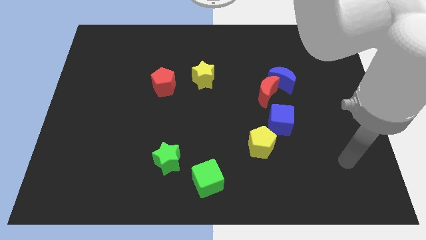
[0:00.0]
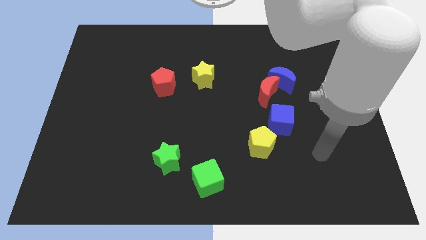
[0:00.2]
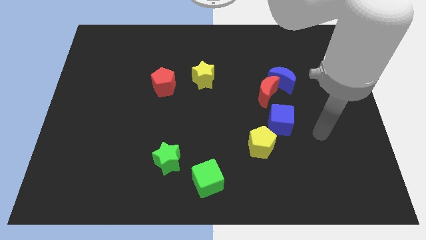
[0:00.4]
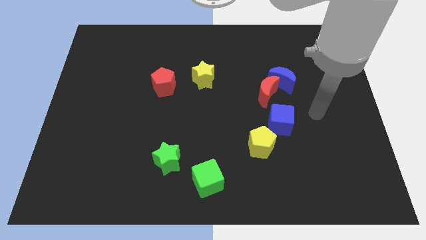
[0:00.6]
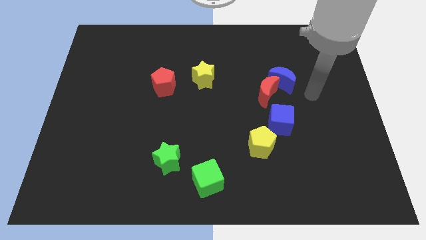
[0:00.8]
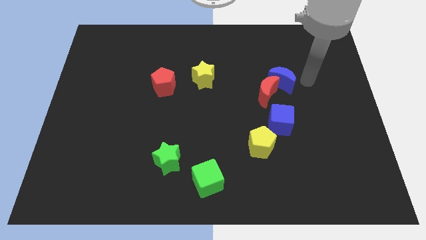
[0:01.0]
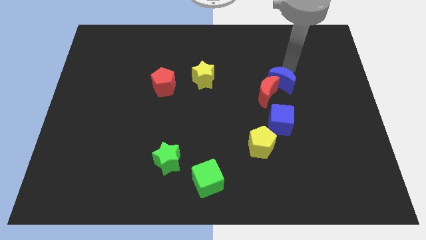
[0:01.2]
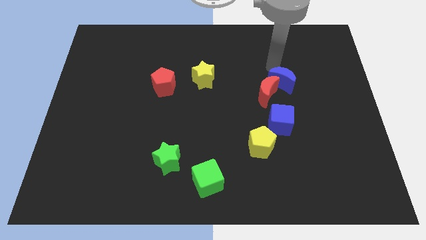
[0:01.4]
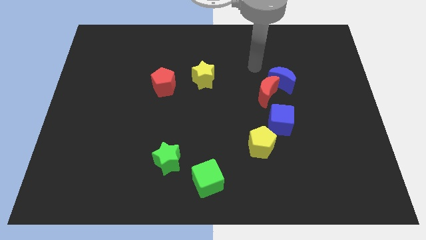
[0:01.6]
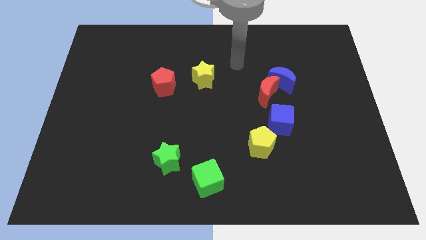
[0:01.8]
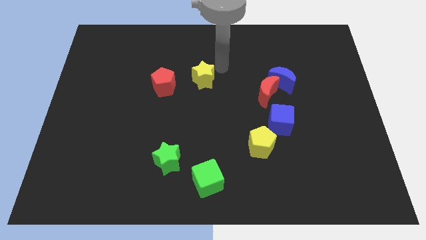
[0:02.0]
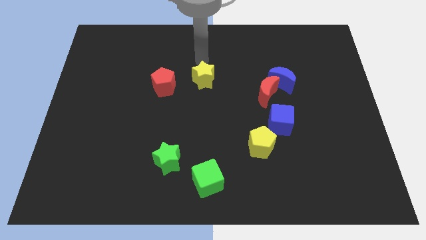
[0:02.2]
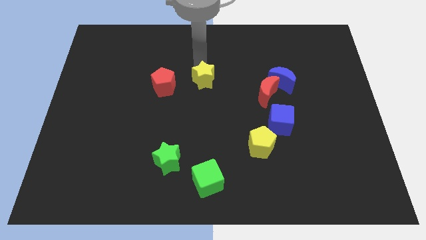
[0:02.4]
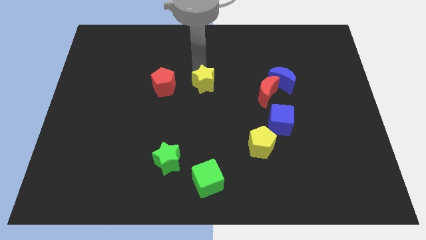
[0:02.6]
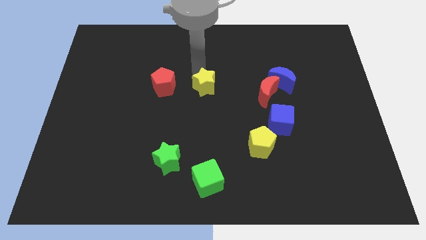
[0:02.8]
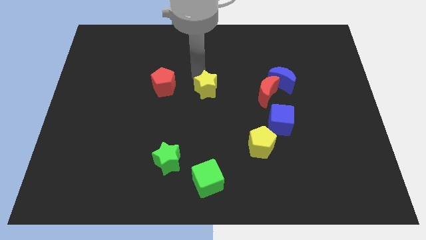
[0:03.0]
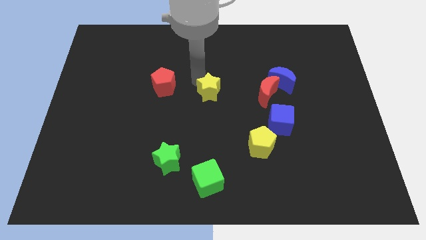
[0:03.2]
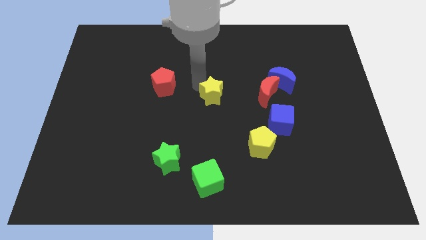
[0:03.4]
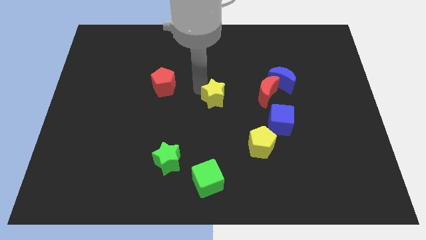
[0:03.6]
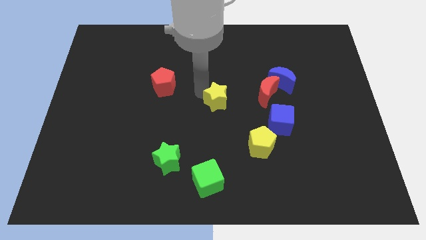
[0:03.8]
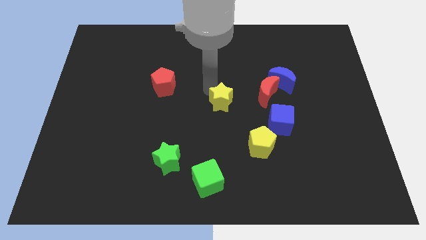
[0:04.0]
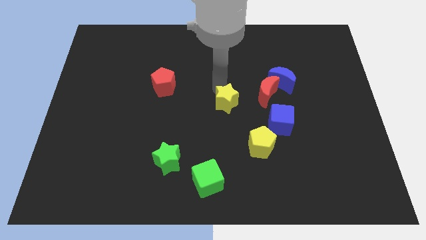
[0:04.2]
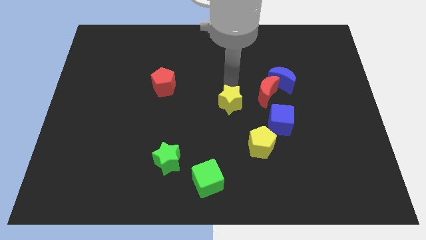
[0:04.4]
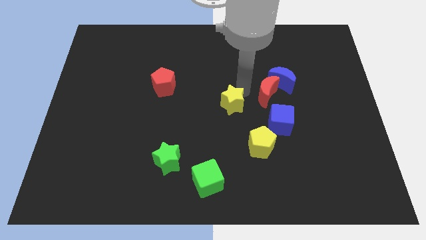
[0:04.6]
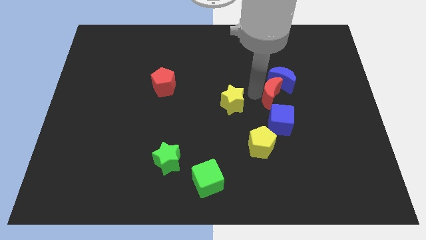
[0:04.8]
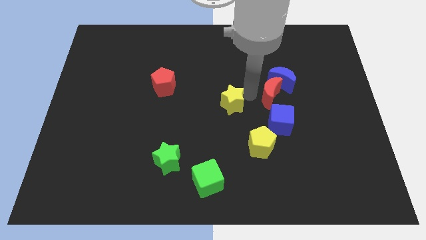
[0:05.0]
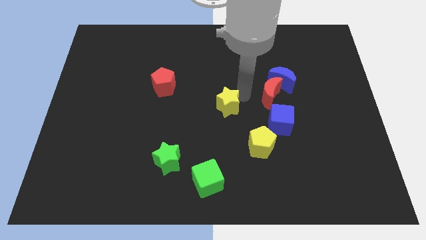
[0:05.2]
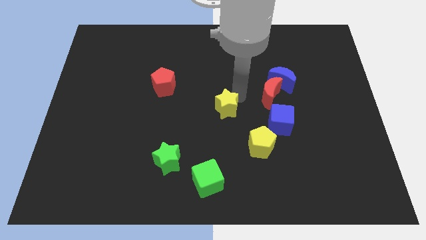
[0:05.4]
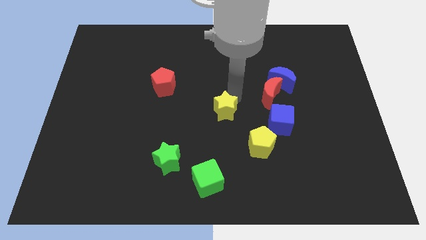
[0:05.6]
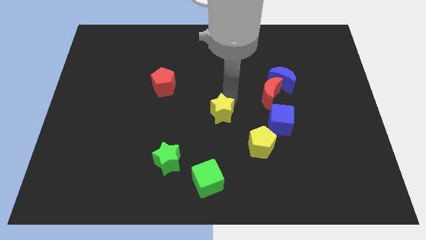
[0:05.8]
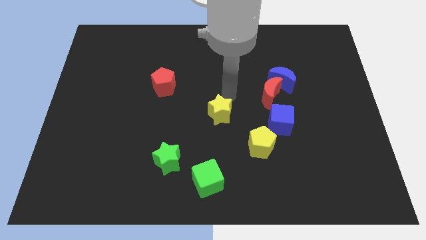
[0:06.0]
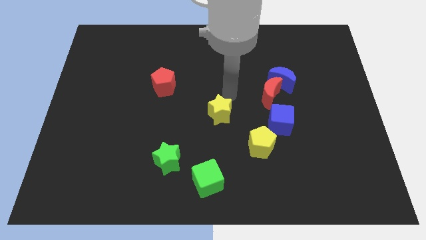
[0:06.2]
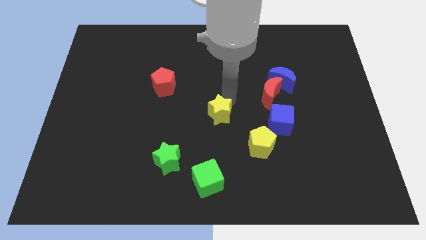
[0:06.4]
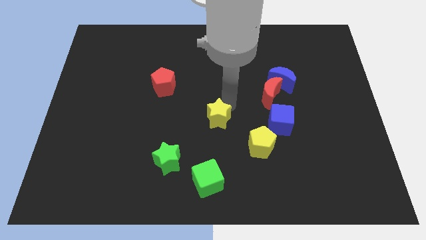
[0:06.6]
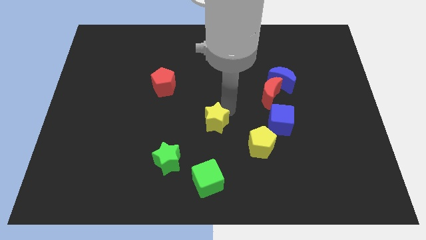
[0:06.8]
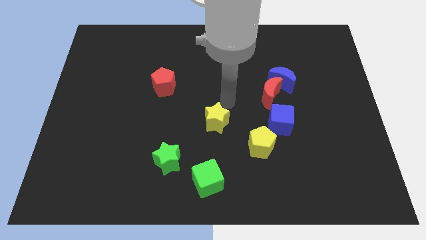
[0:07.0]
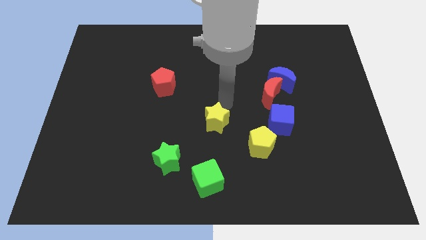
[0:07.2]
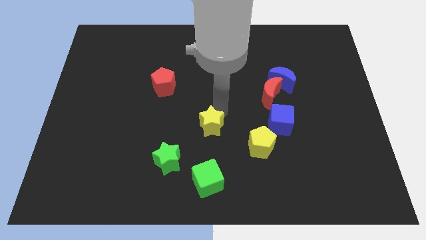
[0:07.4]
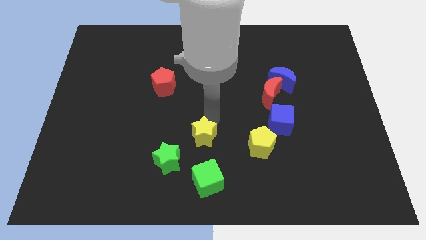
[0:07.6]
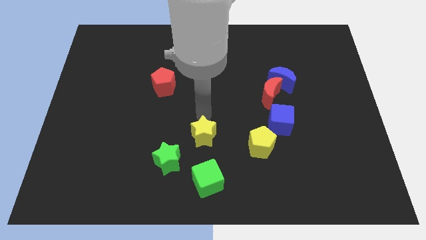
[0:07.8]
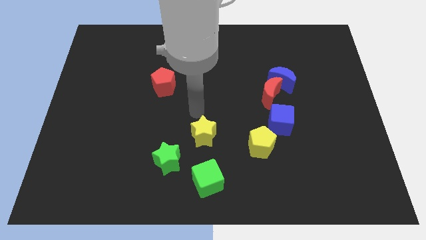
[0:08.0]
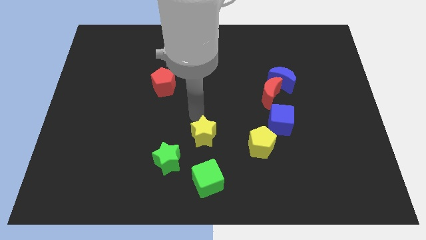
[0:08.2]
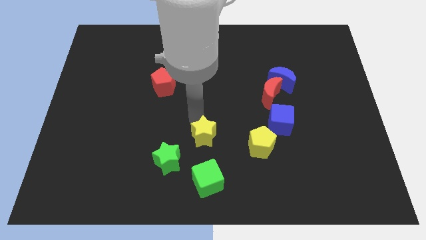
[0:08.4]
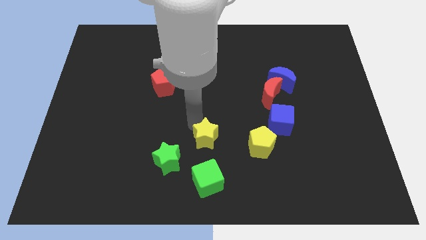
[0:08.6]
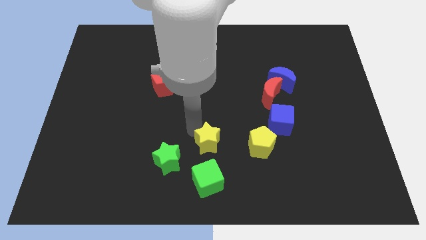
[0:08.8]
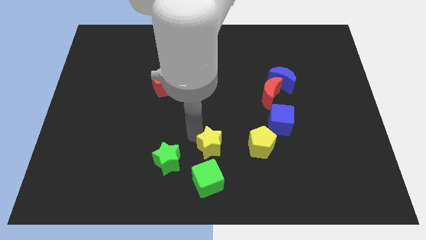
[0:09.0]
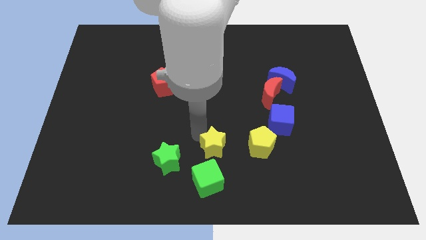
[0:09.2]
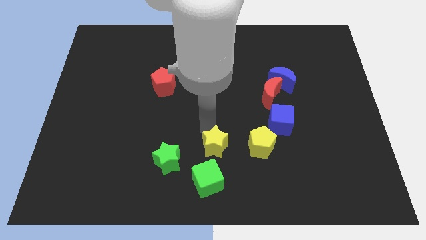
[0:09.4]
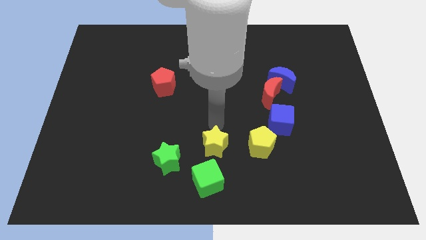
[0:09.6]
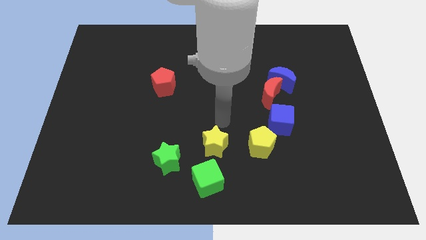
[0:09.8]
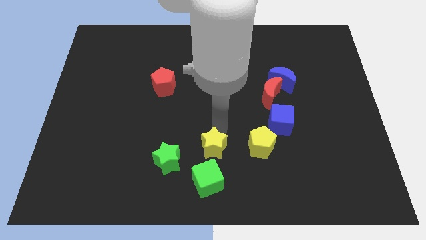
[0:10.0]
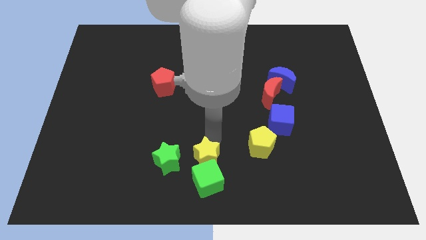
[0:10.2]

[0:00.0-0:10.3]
move the yellow star next to the green cube

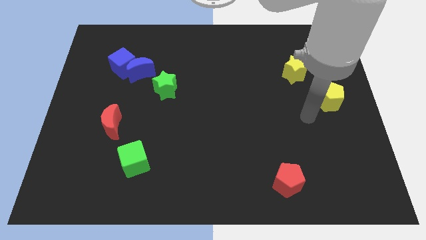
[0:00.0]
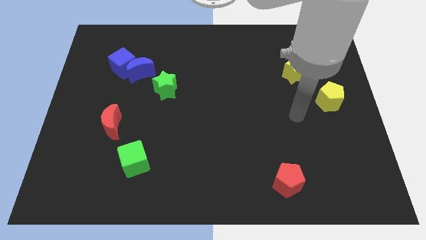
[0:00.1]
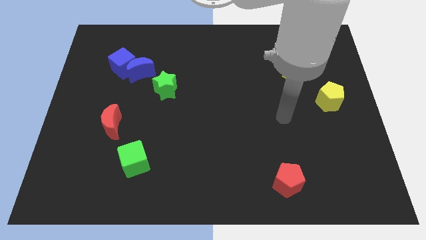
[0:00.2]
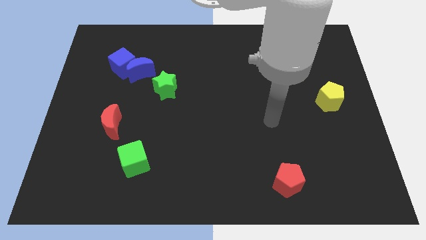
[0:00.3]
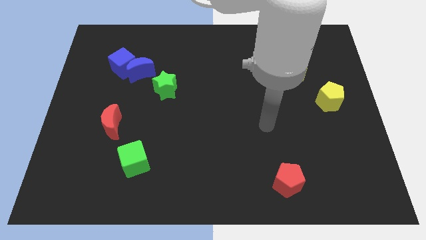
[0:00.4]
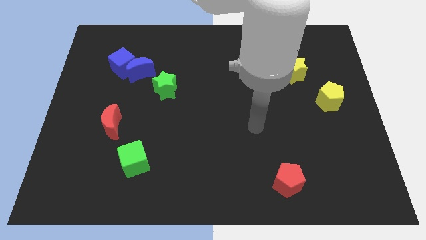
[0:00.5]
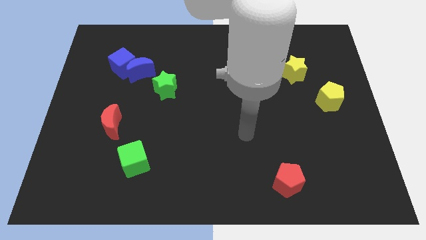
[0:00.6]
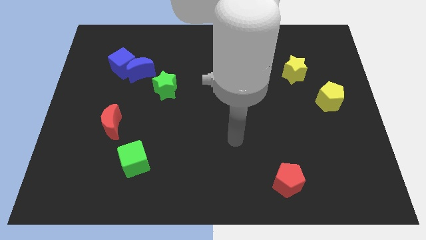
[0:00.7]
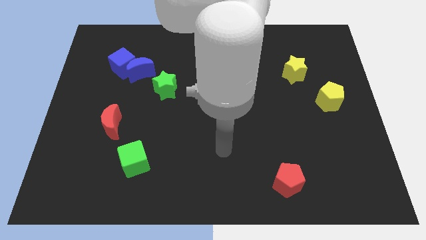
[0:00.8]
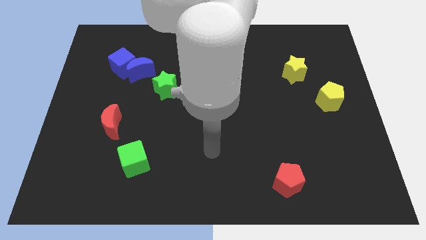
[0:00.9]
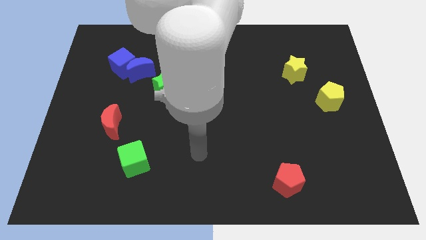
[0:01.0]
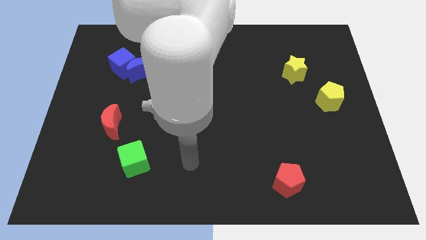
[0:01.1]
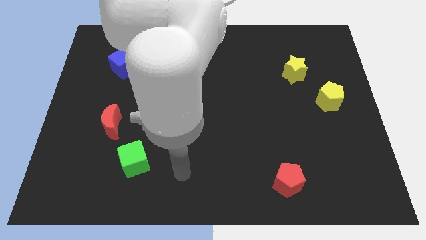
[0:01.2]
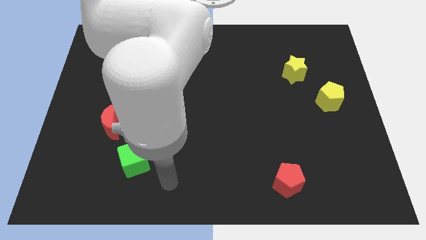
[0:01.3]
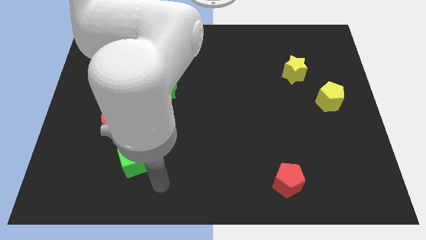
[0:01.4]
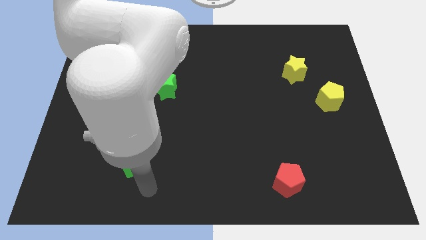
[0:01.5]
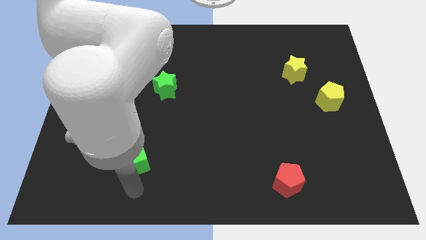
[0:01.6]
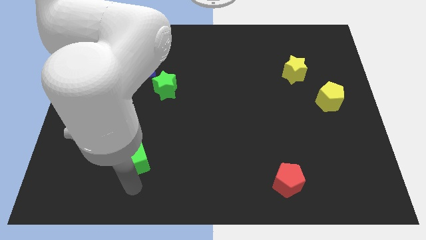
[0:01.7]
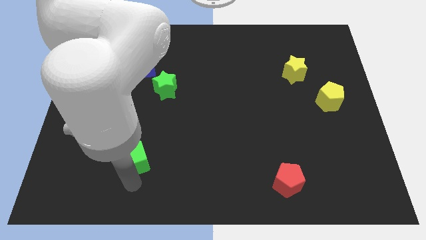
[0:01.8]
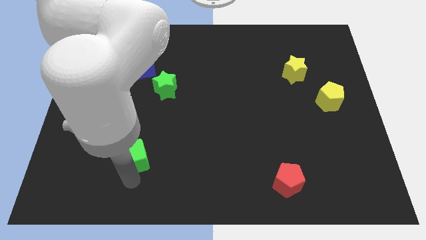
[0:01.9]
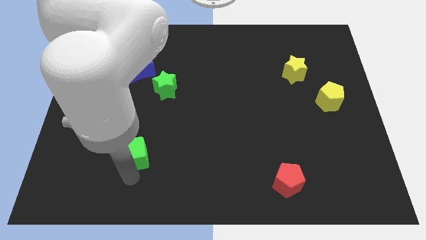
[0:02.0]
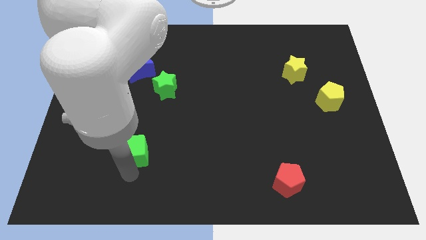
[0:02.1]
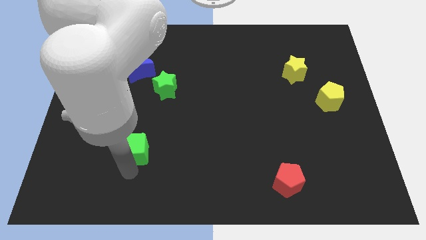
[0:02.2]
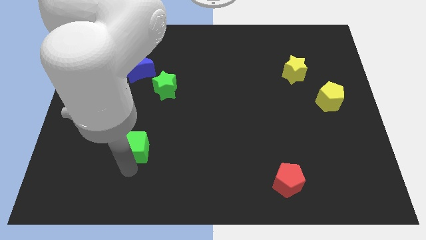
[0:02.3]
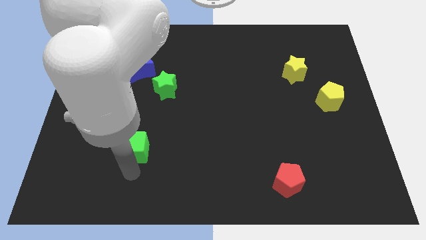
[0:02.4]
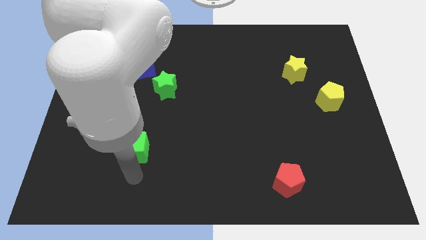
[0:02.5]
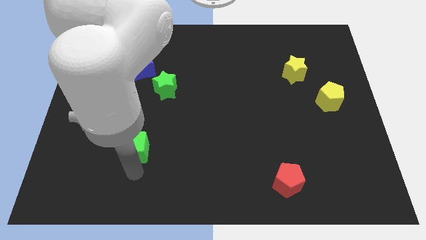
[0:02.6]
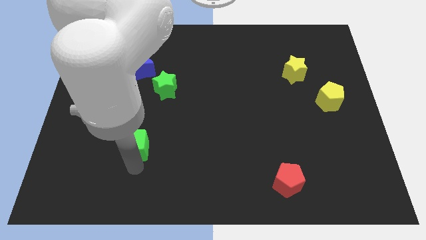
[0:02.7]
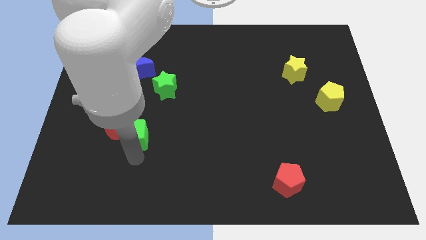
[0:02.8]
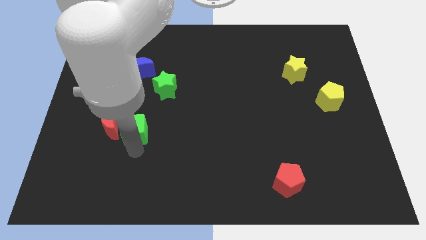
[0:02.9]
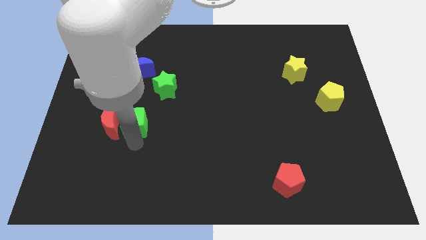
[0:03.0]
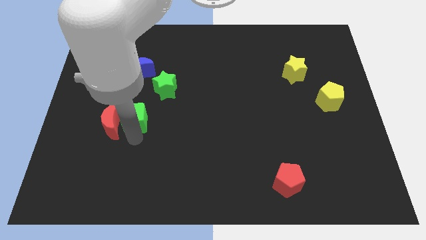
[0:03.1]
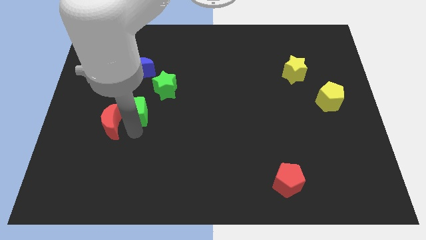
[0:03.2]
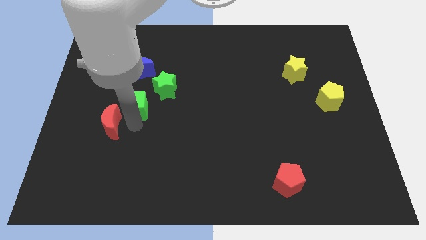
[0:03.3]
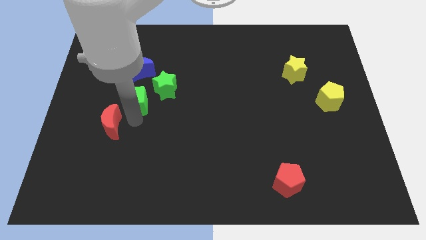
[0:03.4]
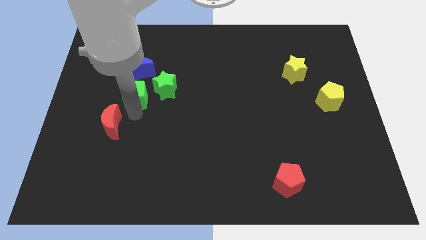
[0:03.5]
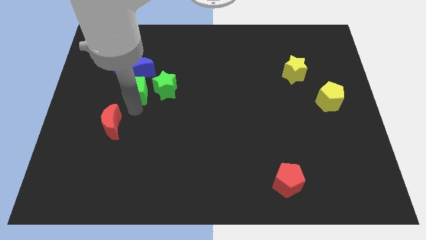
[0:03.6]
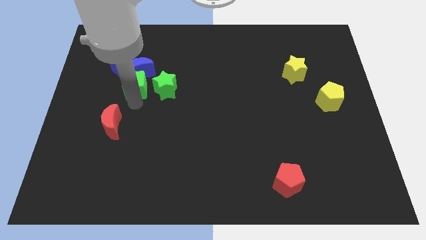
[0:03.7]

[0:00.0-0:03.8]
move the green cube towards the blue moon
